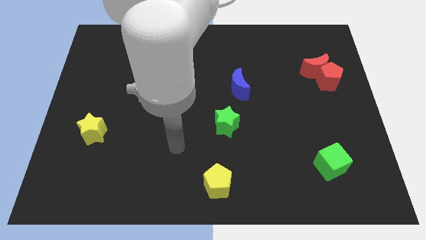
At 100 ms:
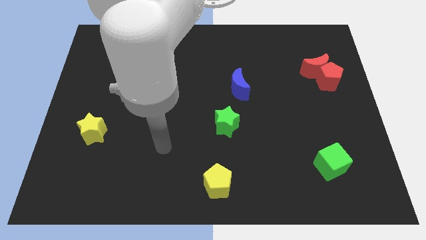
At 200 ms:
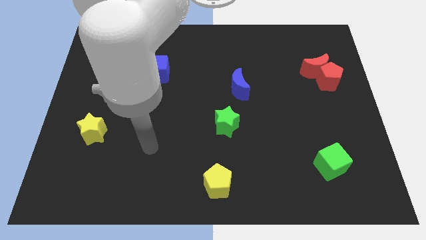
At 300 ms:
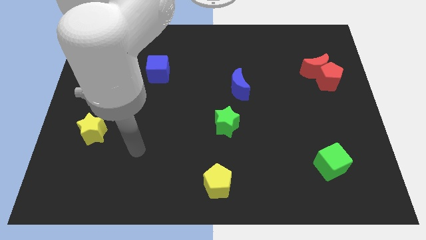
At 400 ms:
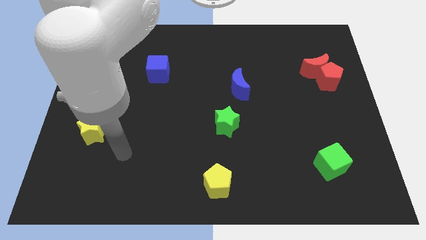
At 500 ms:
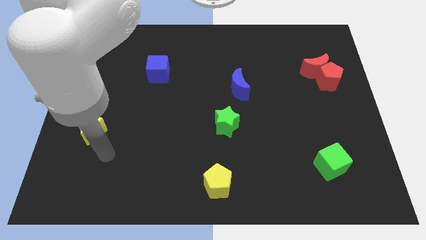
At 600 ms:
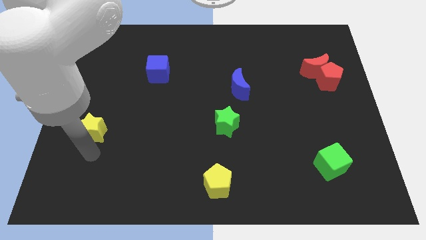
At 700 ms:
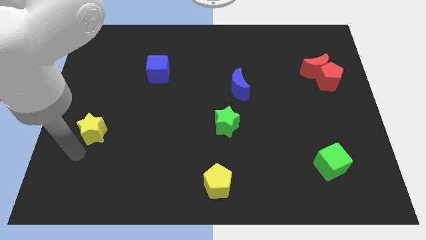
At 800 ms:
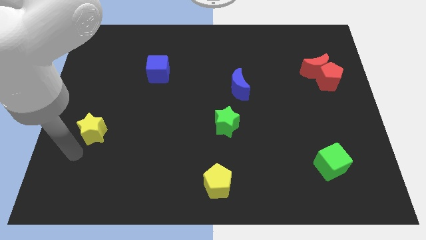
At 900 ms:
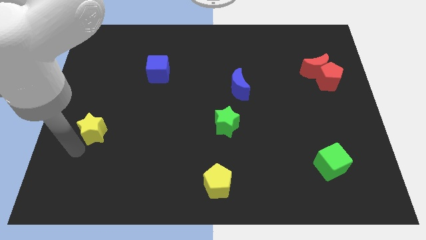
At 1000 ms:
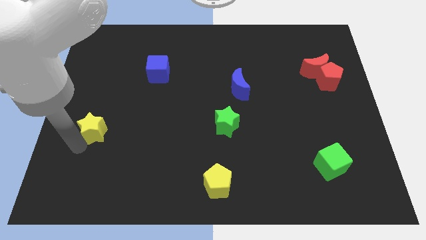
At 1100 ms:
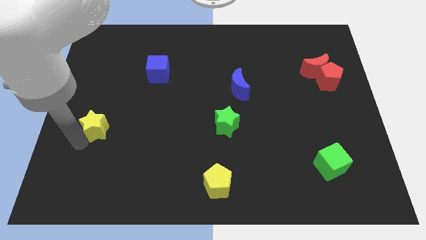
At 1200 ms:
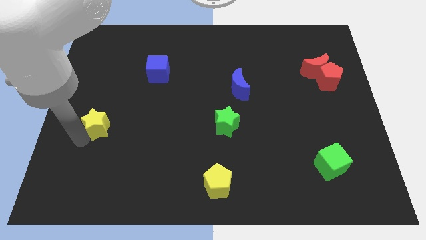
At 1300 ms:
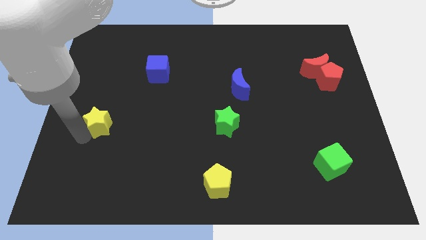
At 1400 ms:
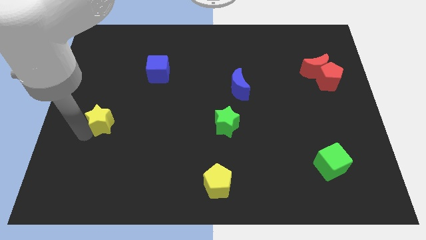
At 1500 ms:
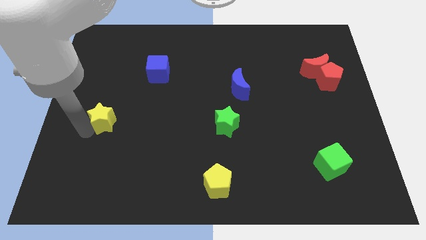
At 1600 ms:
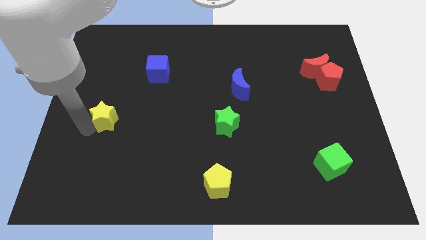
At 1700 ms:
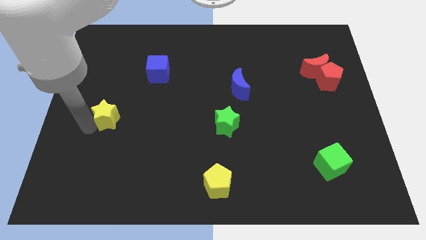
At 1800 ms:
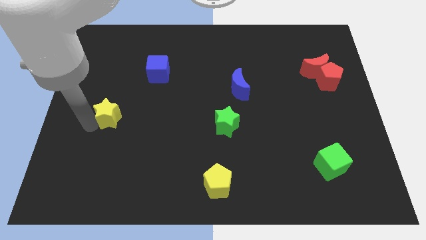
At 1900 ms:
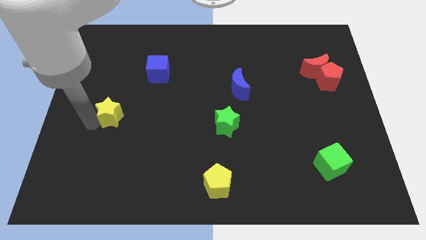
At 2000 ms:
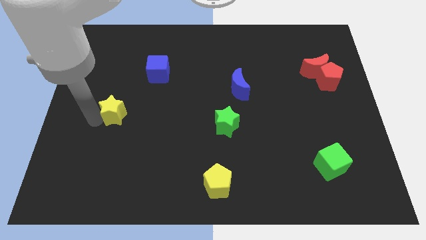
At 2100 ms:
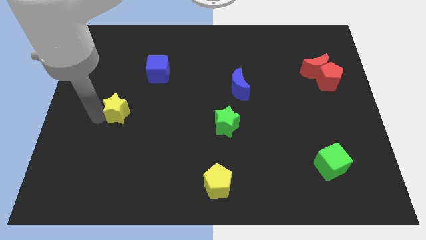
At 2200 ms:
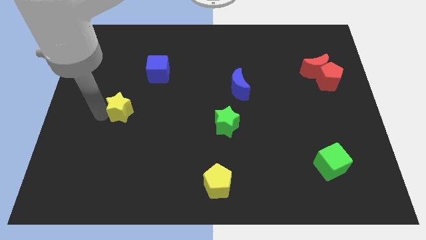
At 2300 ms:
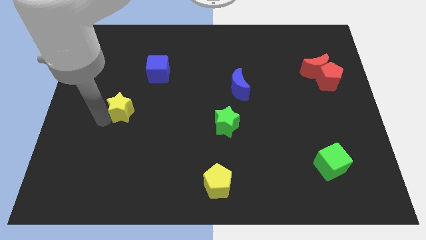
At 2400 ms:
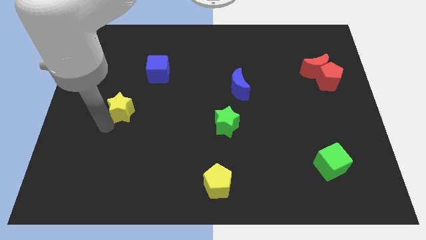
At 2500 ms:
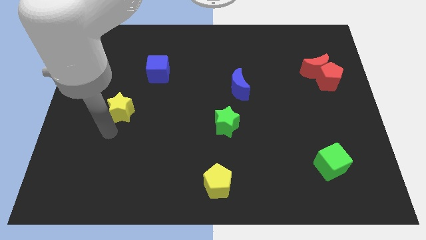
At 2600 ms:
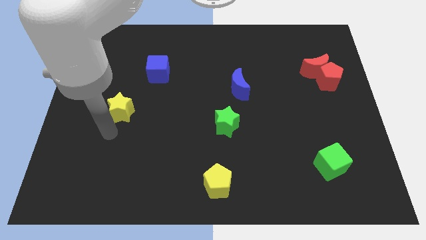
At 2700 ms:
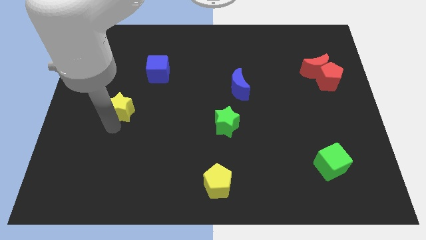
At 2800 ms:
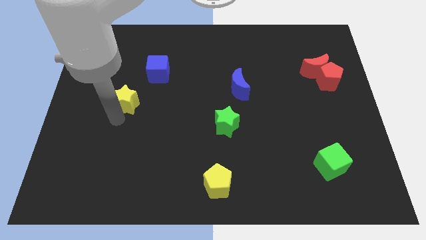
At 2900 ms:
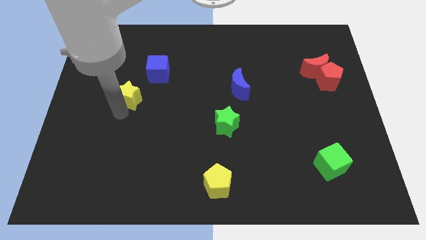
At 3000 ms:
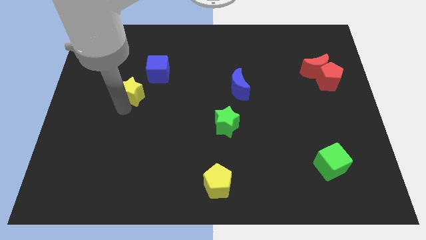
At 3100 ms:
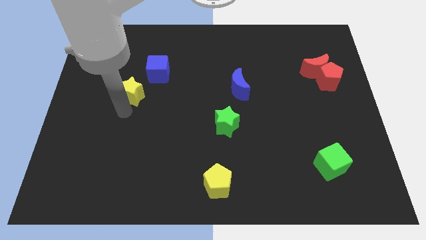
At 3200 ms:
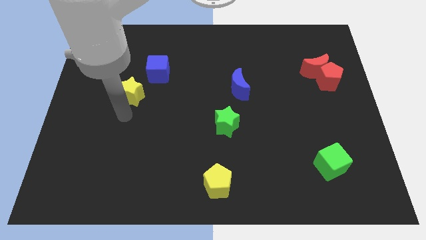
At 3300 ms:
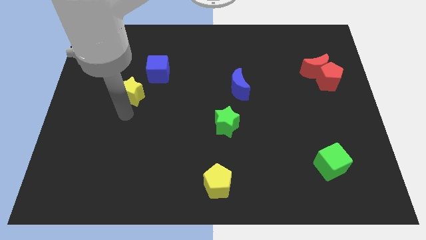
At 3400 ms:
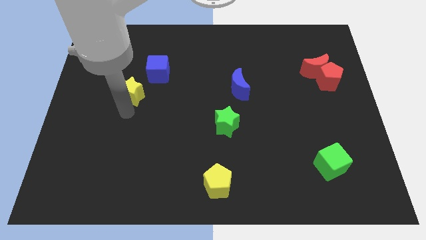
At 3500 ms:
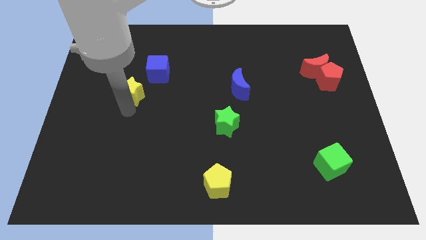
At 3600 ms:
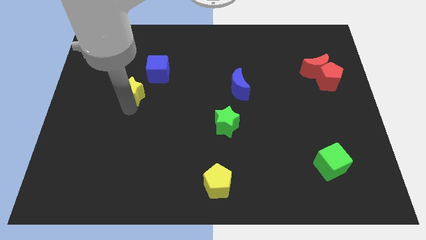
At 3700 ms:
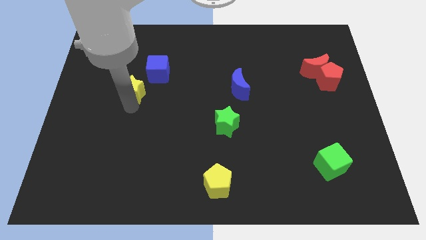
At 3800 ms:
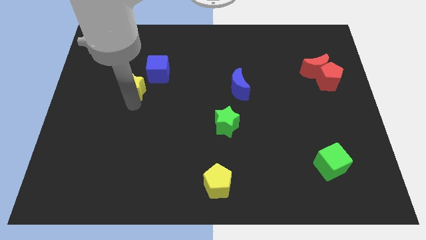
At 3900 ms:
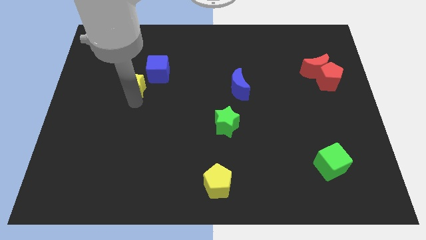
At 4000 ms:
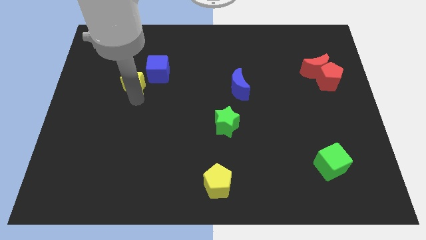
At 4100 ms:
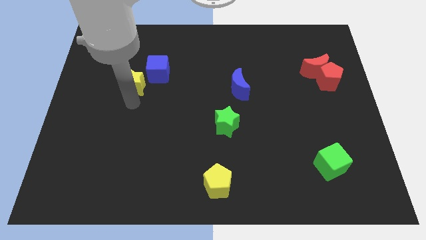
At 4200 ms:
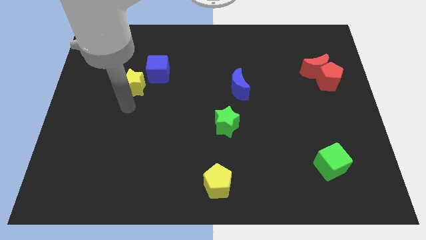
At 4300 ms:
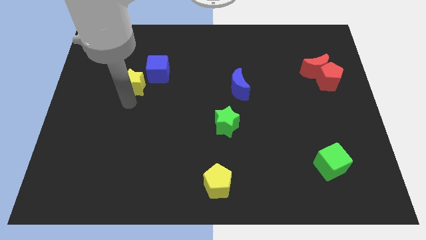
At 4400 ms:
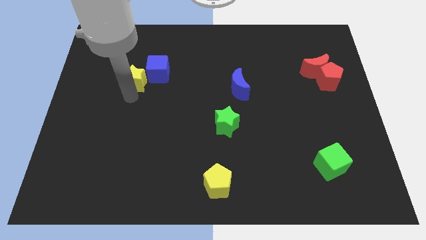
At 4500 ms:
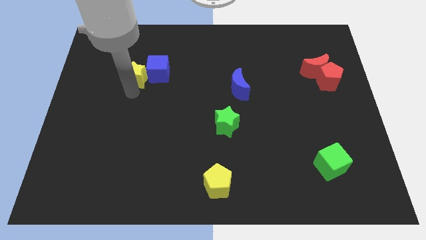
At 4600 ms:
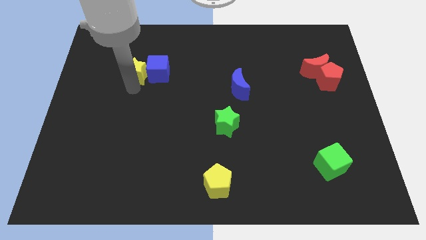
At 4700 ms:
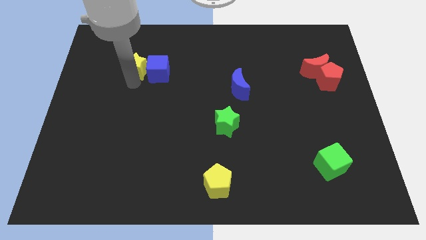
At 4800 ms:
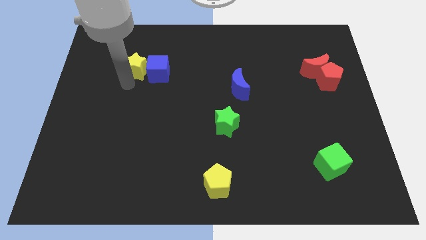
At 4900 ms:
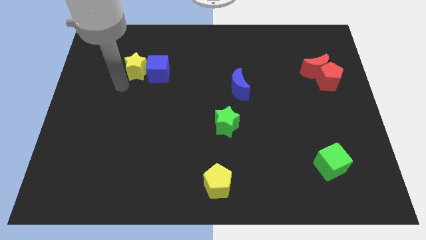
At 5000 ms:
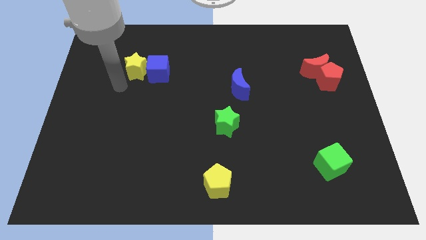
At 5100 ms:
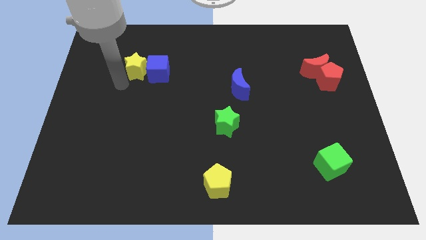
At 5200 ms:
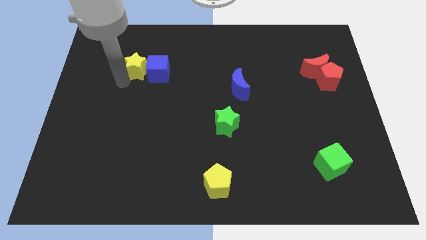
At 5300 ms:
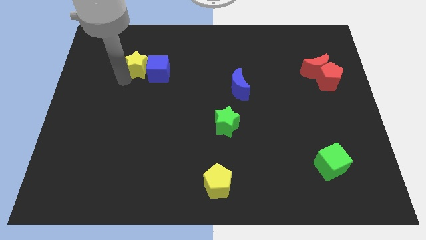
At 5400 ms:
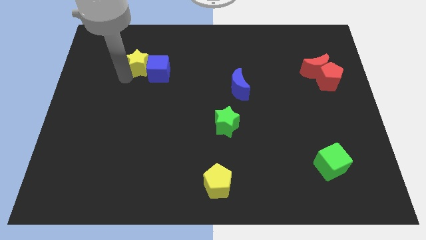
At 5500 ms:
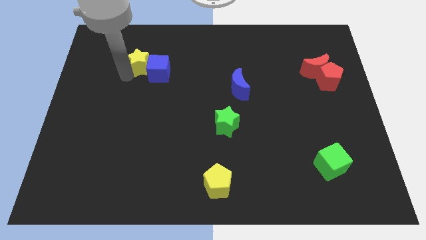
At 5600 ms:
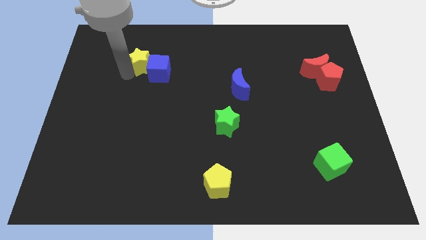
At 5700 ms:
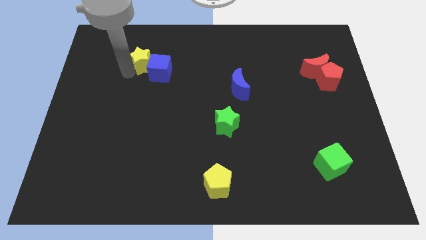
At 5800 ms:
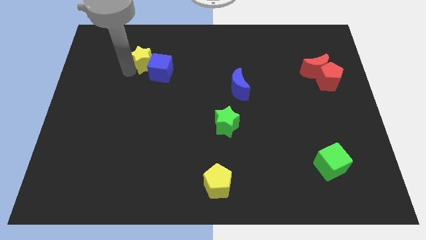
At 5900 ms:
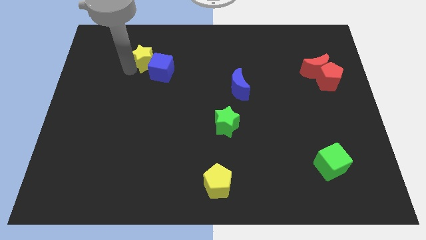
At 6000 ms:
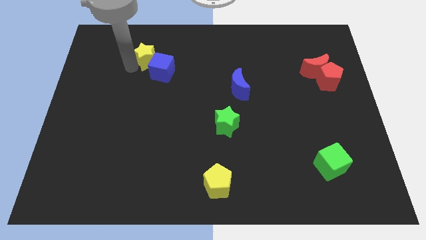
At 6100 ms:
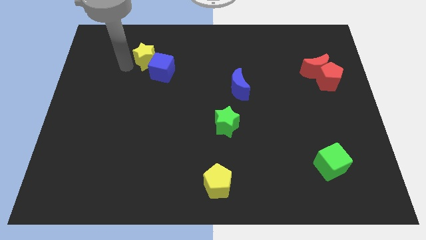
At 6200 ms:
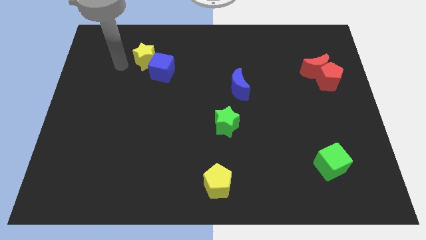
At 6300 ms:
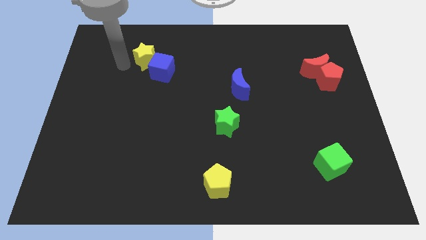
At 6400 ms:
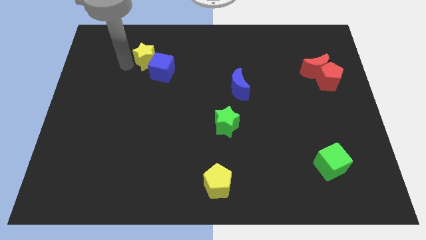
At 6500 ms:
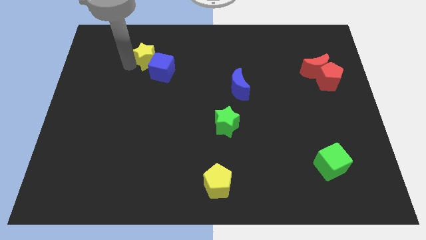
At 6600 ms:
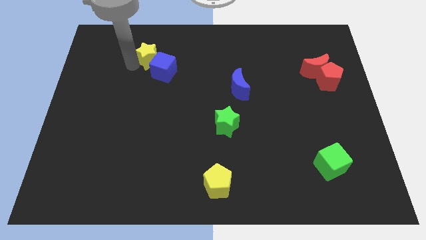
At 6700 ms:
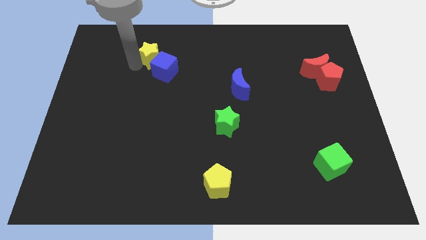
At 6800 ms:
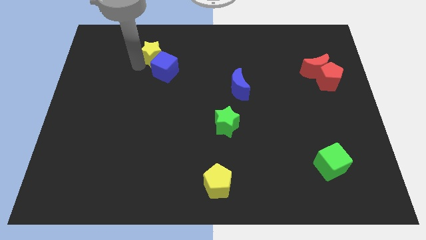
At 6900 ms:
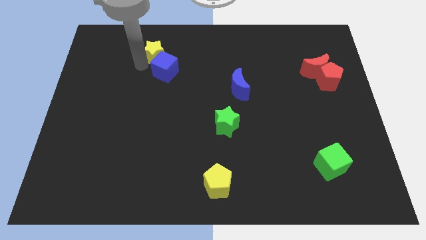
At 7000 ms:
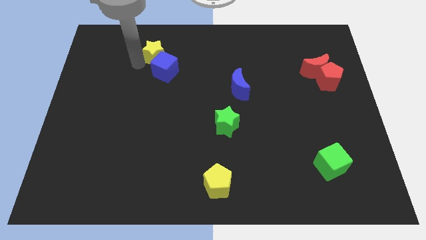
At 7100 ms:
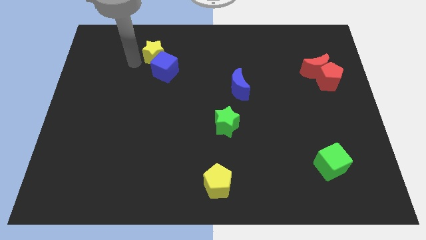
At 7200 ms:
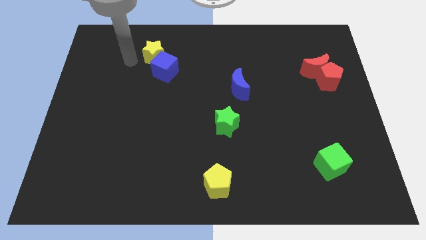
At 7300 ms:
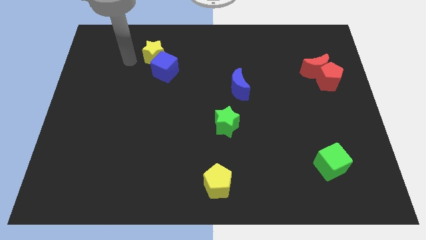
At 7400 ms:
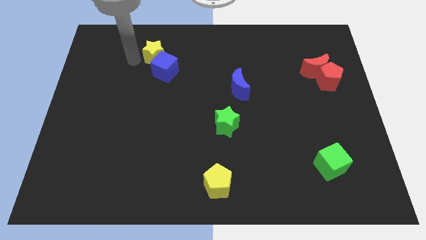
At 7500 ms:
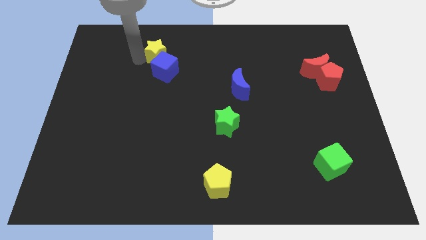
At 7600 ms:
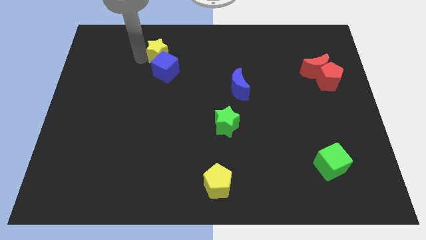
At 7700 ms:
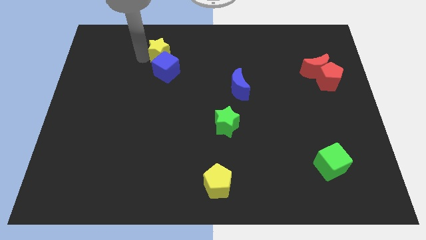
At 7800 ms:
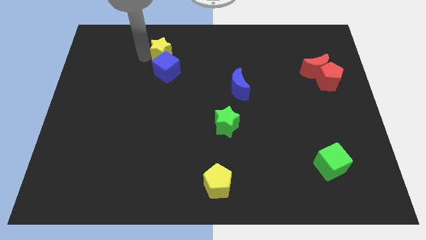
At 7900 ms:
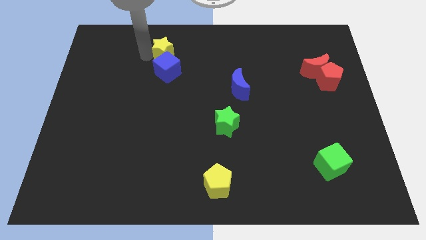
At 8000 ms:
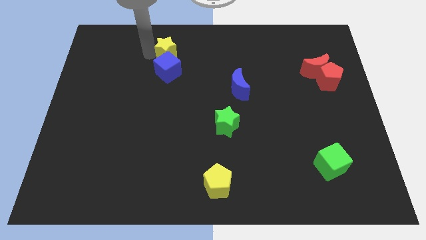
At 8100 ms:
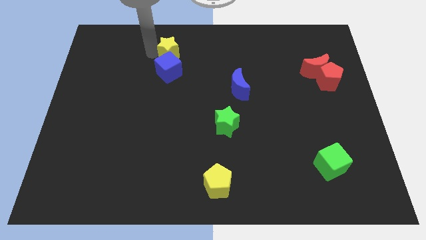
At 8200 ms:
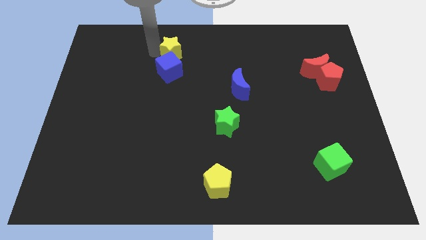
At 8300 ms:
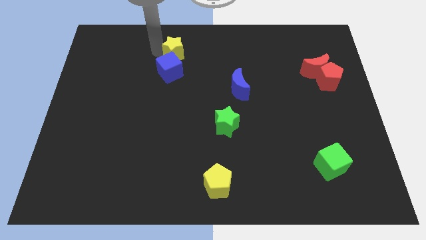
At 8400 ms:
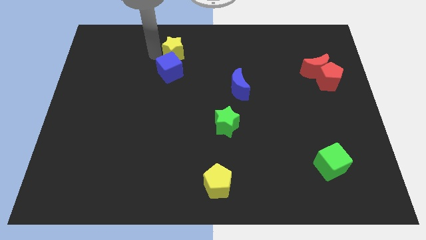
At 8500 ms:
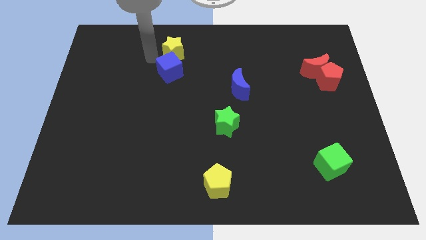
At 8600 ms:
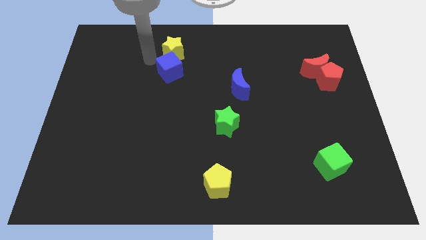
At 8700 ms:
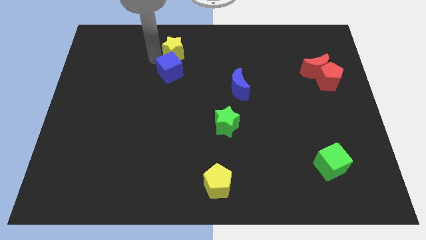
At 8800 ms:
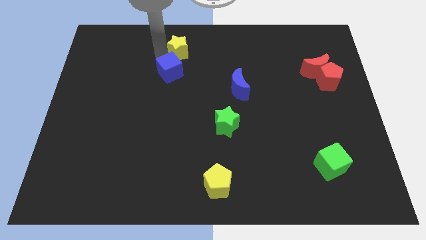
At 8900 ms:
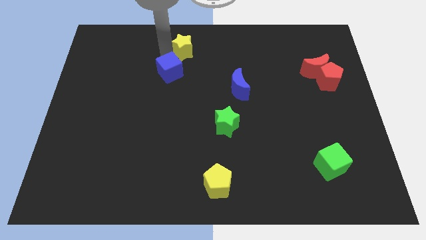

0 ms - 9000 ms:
put the yellow star to the towards your base
